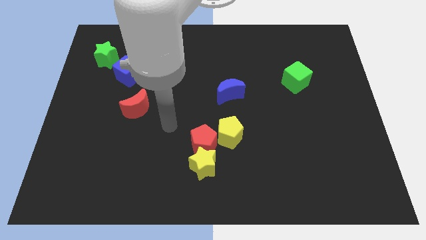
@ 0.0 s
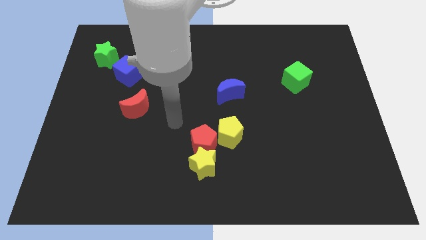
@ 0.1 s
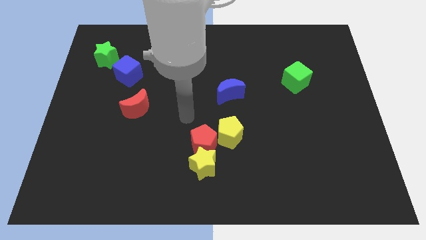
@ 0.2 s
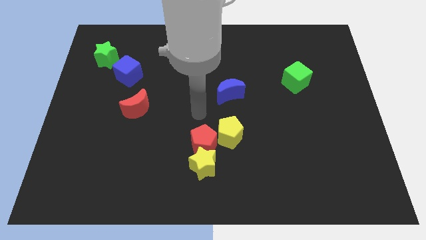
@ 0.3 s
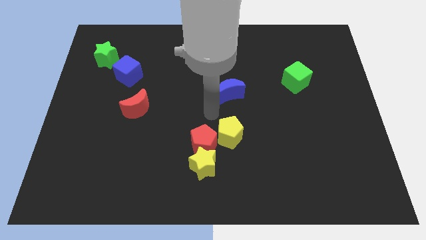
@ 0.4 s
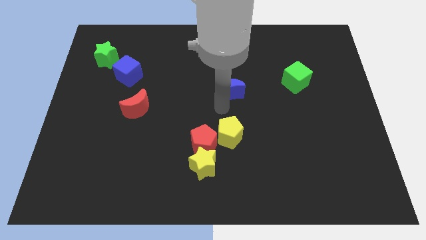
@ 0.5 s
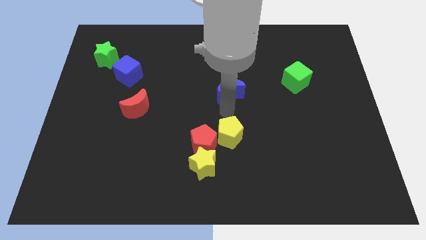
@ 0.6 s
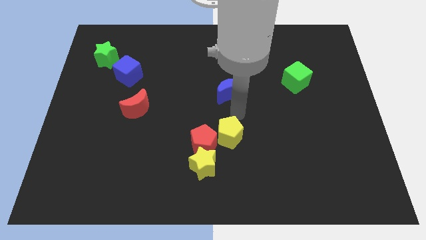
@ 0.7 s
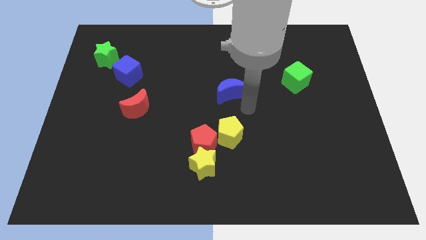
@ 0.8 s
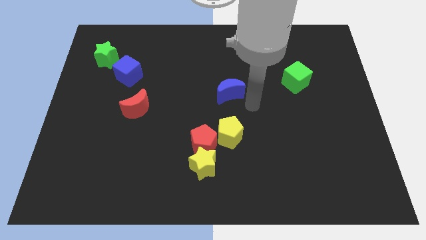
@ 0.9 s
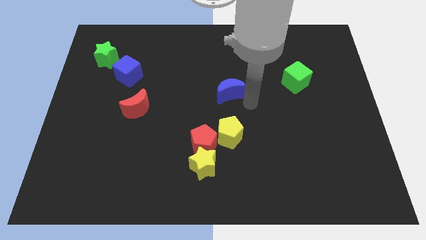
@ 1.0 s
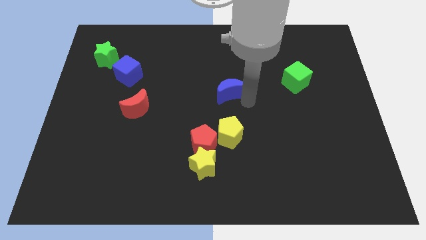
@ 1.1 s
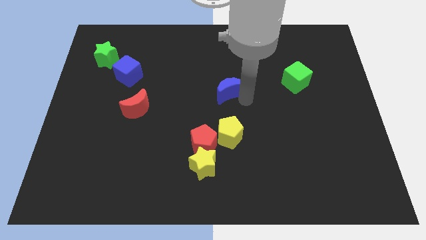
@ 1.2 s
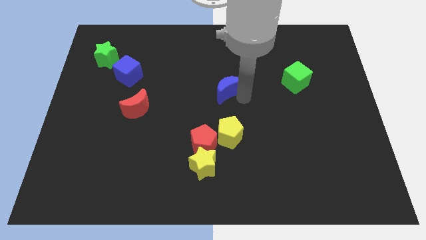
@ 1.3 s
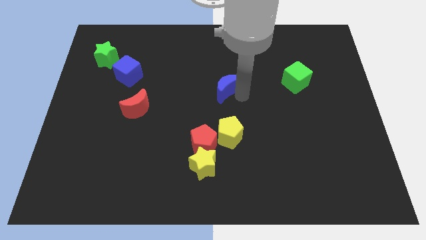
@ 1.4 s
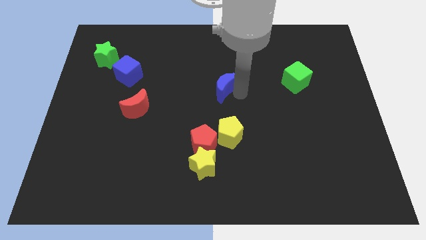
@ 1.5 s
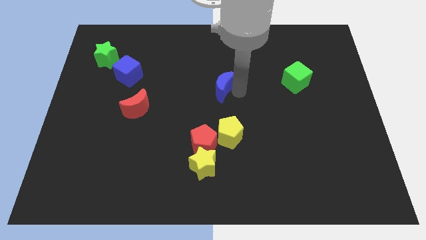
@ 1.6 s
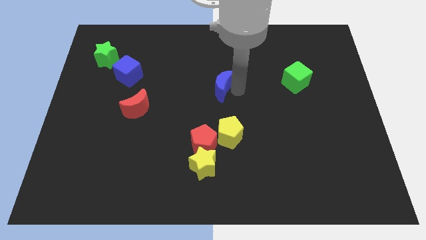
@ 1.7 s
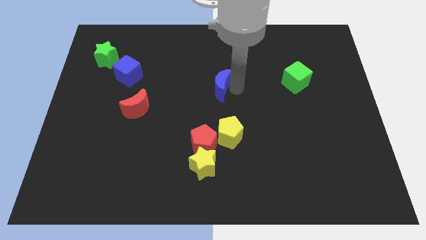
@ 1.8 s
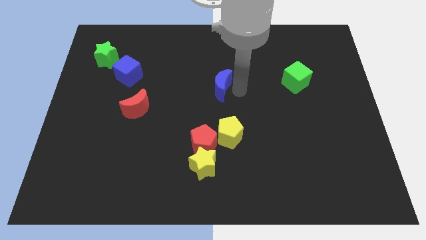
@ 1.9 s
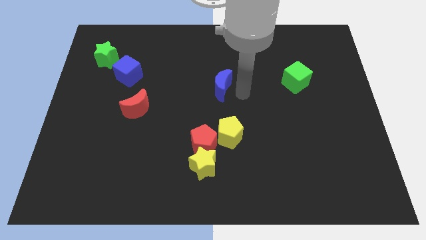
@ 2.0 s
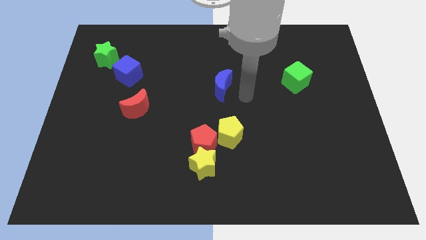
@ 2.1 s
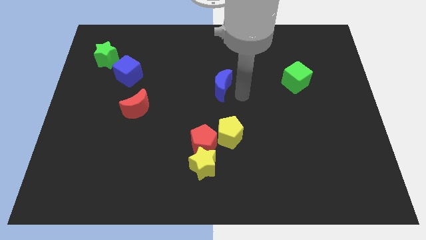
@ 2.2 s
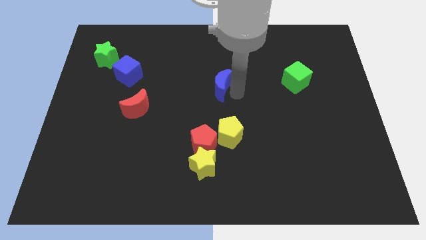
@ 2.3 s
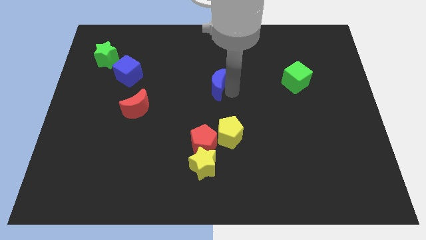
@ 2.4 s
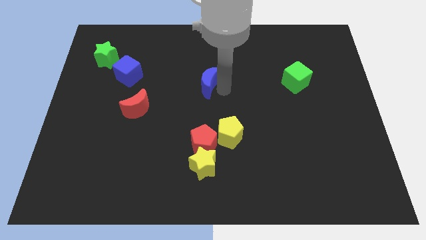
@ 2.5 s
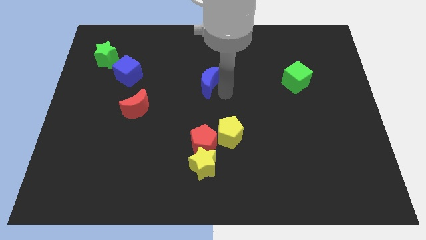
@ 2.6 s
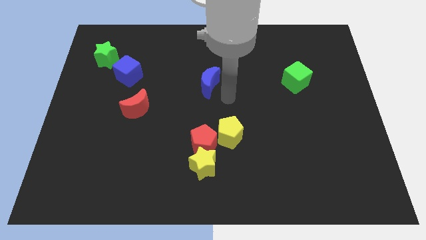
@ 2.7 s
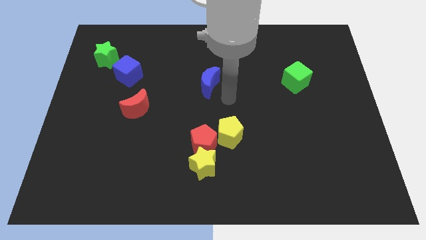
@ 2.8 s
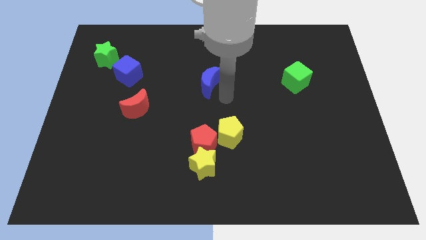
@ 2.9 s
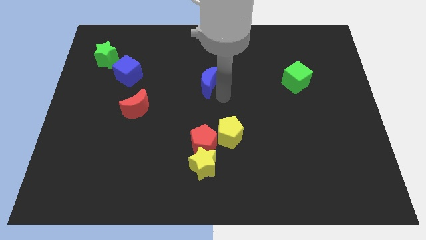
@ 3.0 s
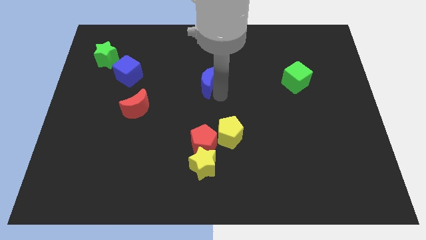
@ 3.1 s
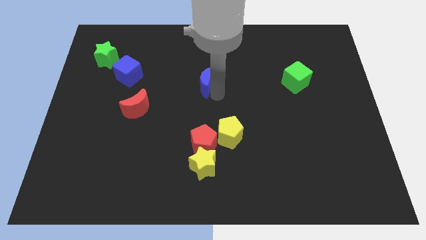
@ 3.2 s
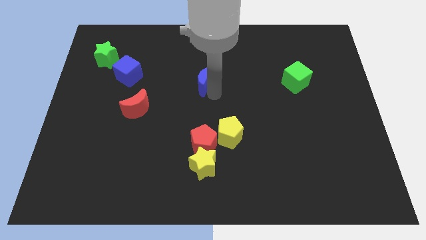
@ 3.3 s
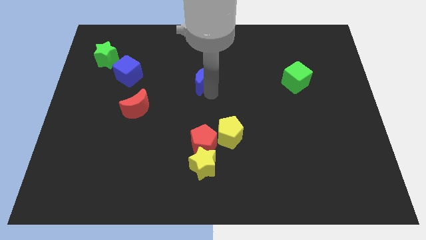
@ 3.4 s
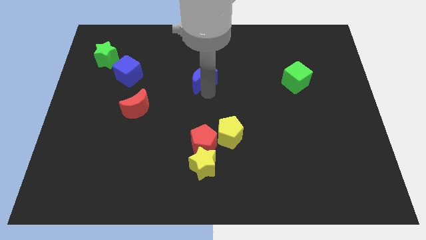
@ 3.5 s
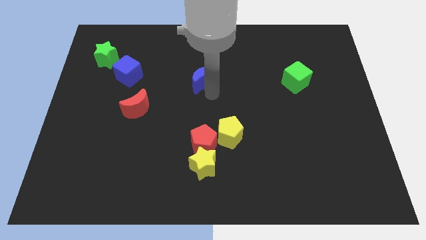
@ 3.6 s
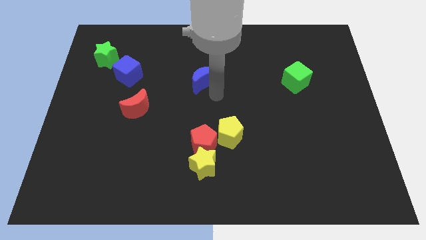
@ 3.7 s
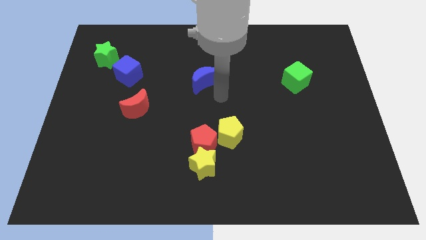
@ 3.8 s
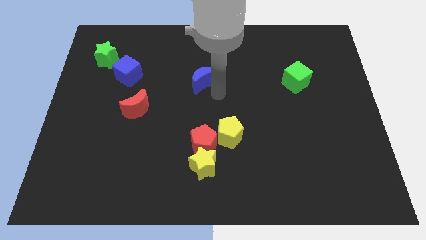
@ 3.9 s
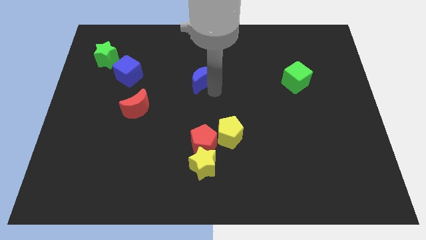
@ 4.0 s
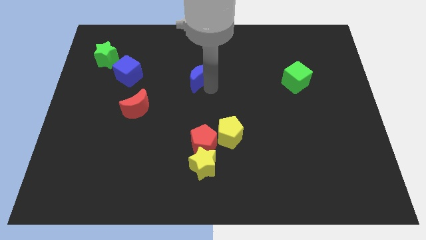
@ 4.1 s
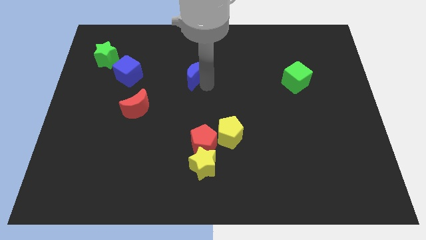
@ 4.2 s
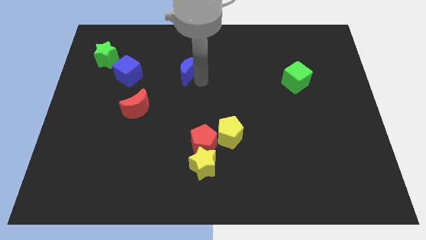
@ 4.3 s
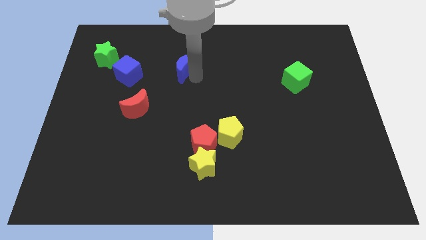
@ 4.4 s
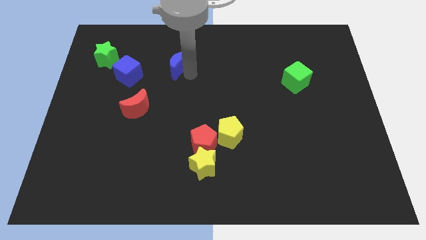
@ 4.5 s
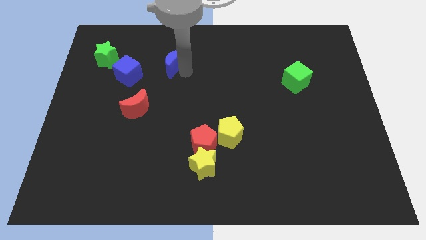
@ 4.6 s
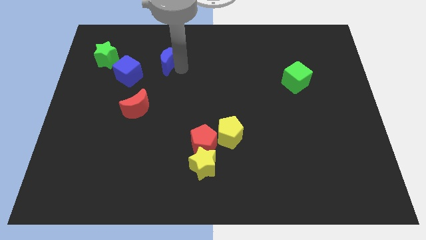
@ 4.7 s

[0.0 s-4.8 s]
slide the blue moon to the top right of the blue cube

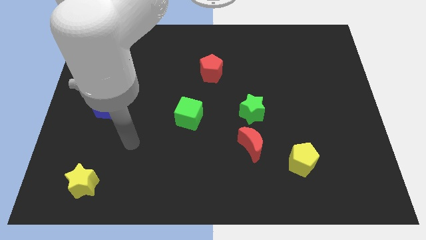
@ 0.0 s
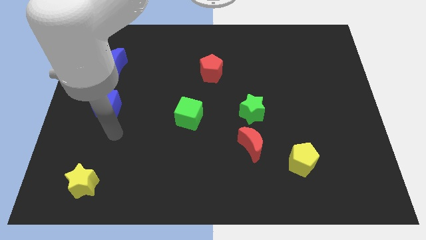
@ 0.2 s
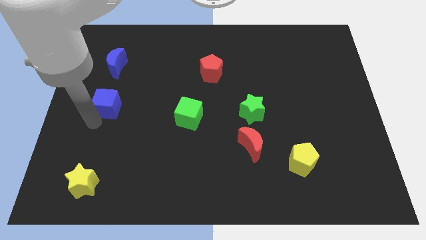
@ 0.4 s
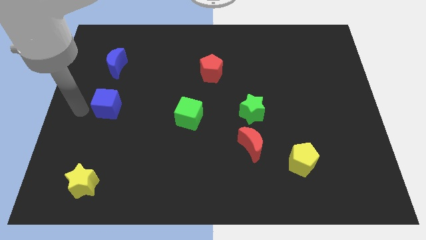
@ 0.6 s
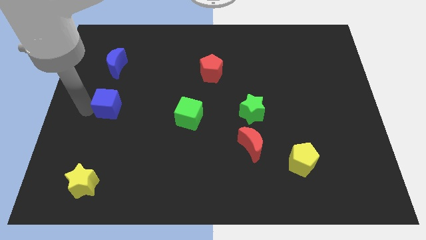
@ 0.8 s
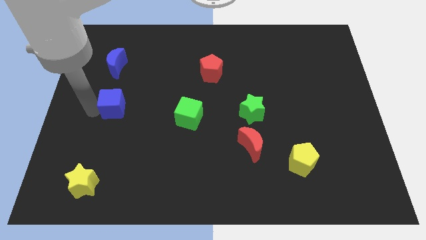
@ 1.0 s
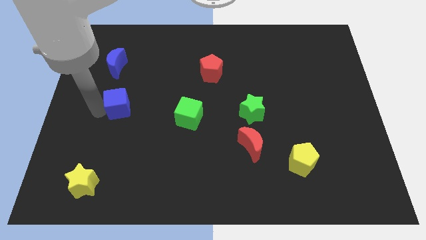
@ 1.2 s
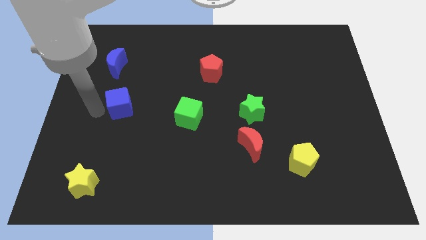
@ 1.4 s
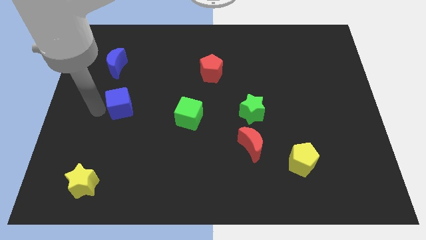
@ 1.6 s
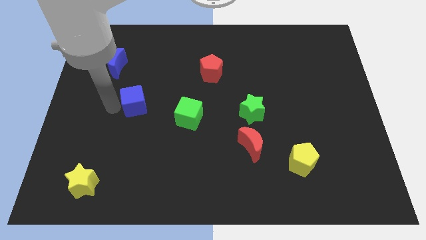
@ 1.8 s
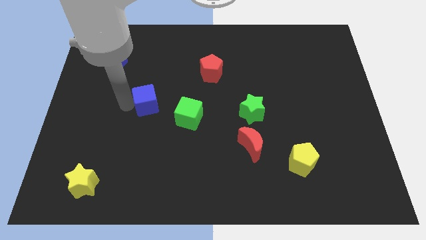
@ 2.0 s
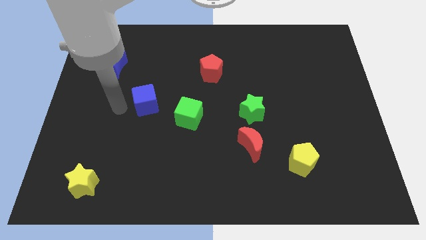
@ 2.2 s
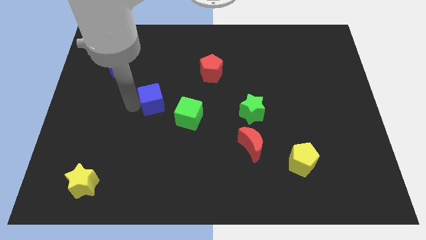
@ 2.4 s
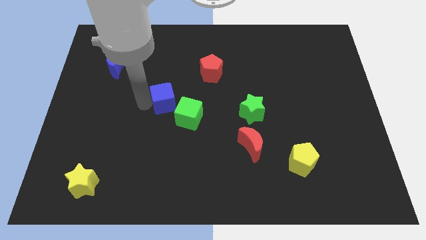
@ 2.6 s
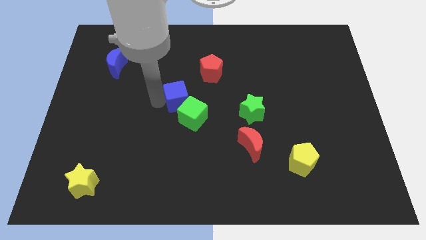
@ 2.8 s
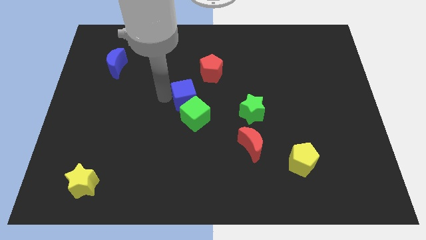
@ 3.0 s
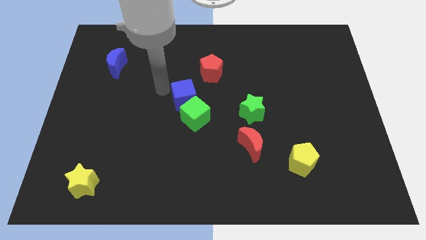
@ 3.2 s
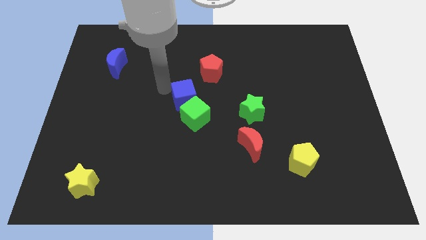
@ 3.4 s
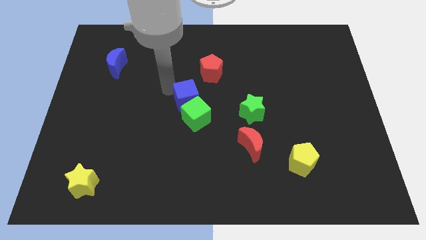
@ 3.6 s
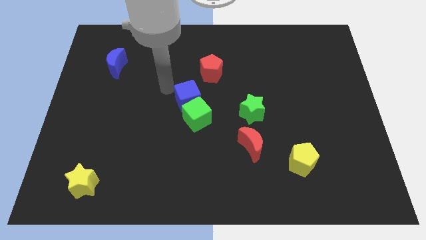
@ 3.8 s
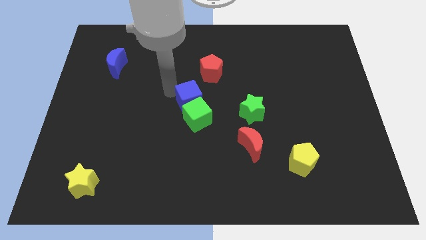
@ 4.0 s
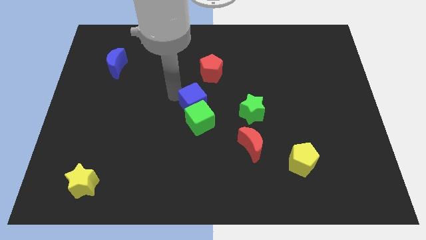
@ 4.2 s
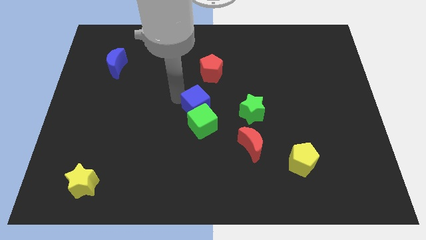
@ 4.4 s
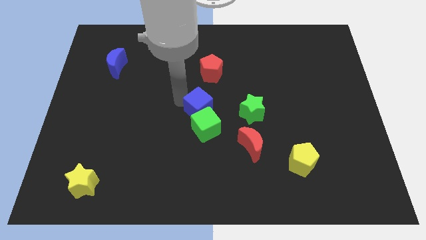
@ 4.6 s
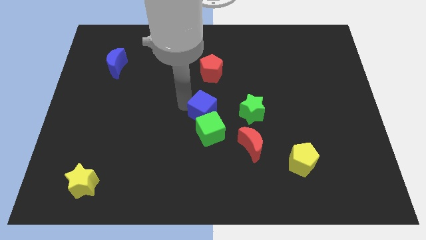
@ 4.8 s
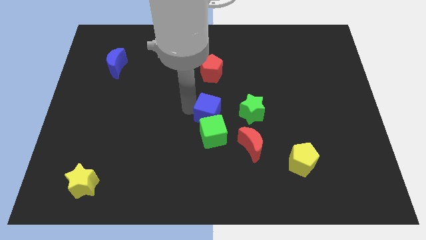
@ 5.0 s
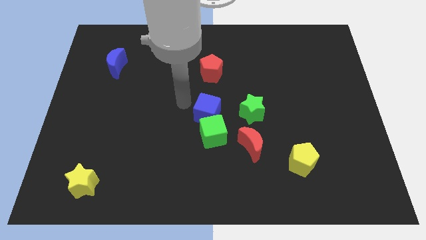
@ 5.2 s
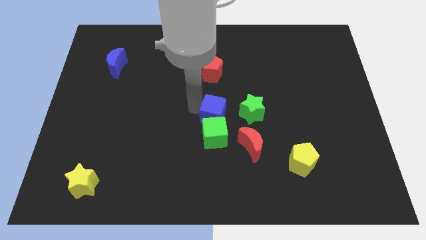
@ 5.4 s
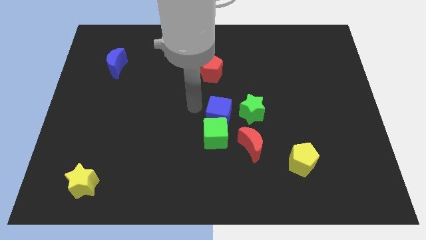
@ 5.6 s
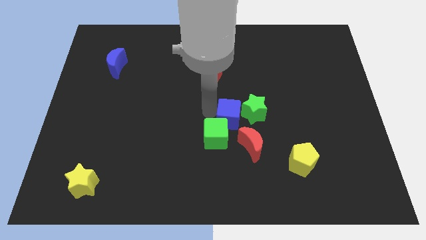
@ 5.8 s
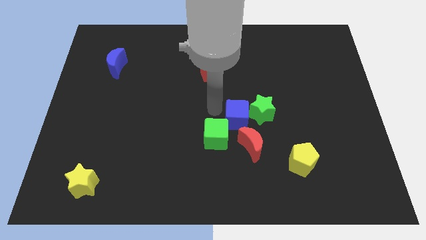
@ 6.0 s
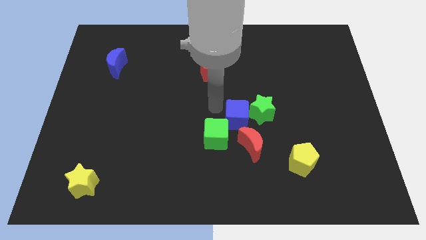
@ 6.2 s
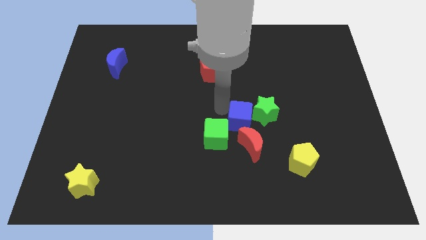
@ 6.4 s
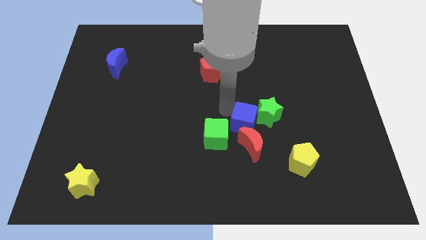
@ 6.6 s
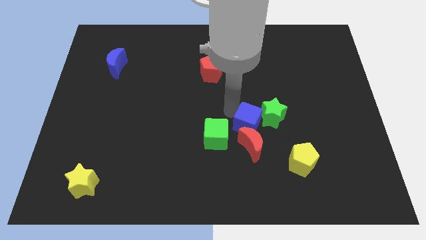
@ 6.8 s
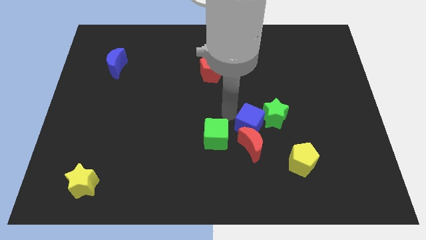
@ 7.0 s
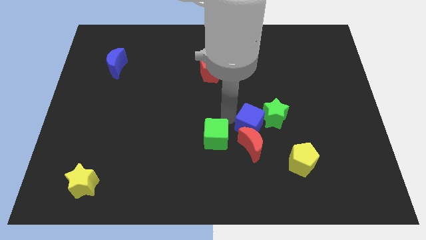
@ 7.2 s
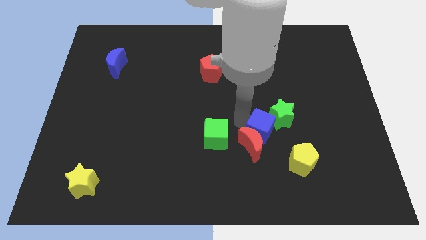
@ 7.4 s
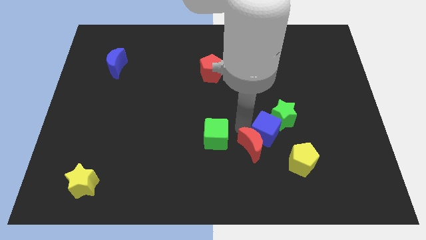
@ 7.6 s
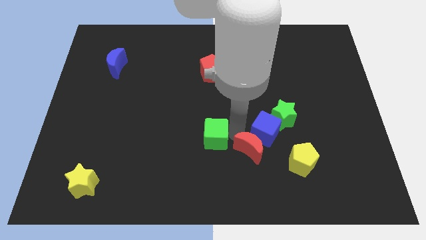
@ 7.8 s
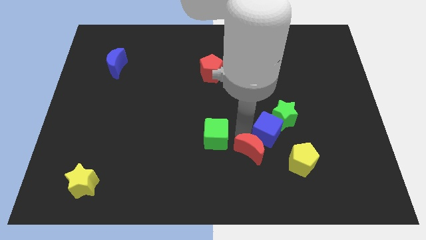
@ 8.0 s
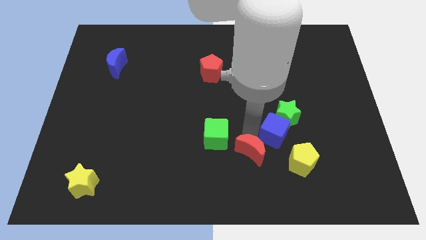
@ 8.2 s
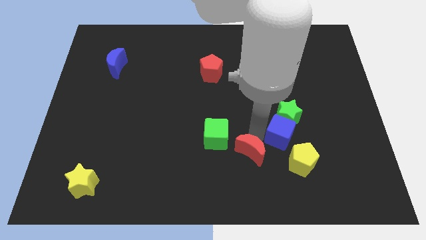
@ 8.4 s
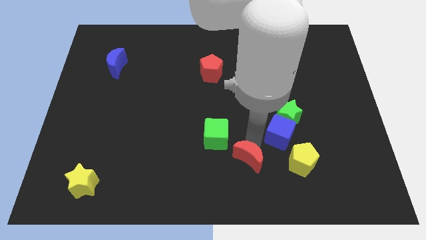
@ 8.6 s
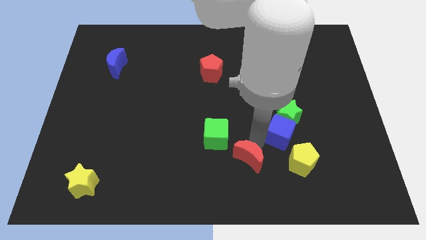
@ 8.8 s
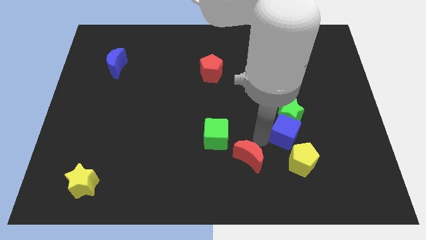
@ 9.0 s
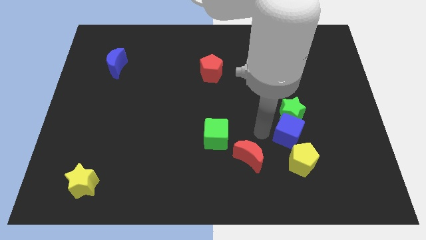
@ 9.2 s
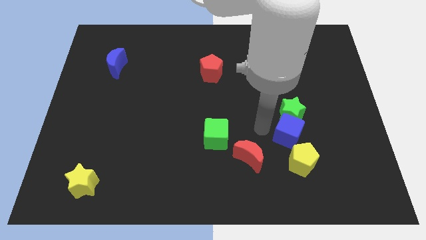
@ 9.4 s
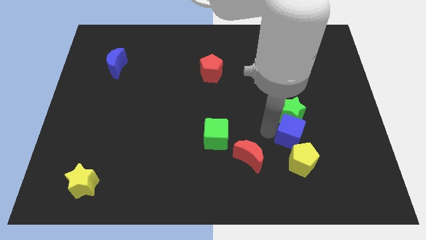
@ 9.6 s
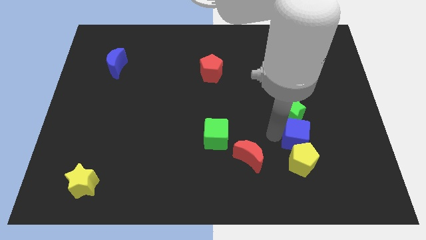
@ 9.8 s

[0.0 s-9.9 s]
push the blue cube diagonally up and to the right of the yellow pentagon